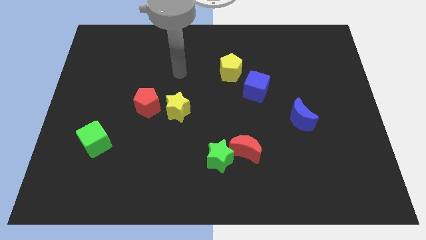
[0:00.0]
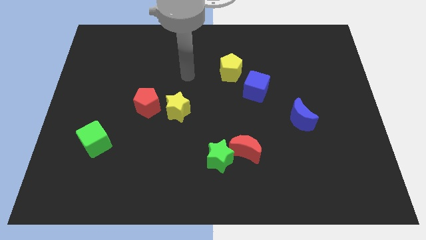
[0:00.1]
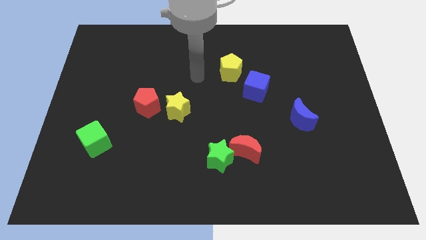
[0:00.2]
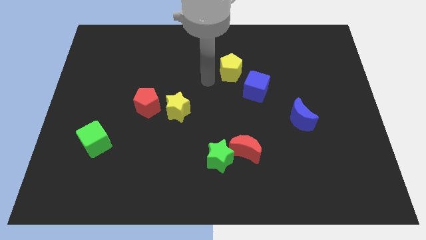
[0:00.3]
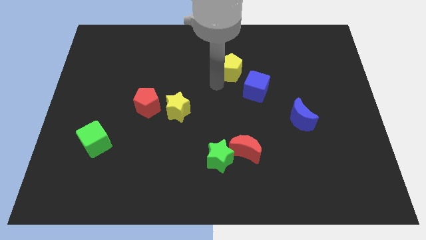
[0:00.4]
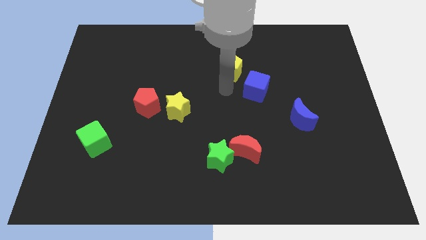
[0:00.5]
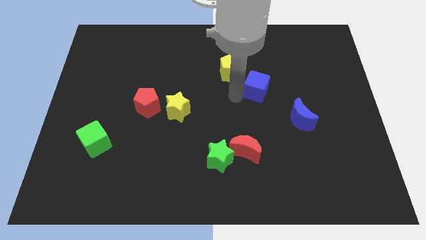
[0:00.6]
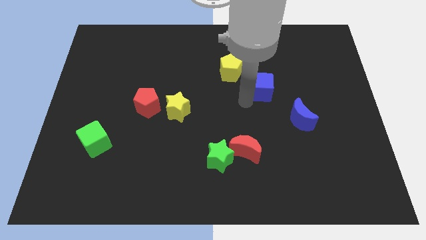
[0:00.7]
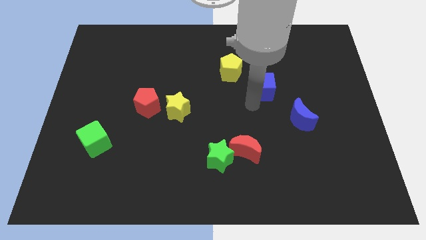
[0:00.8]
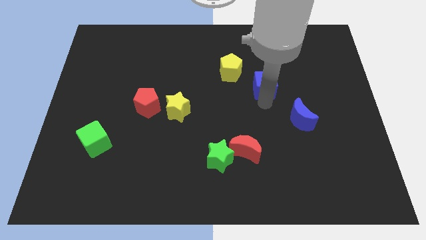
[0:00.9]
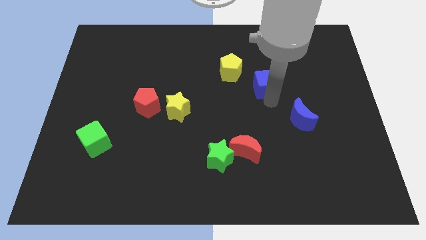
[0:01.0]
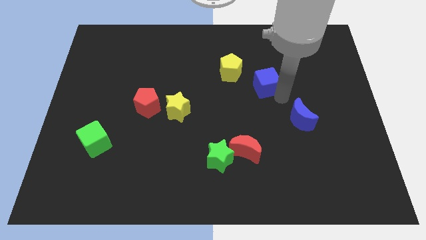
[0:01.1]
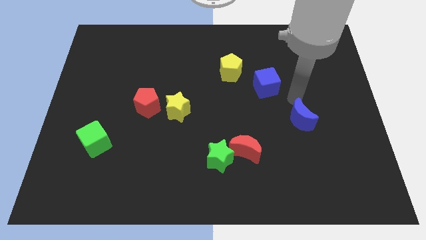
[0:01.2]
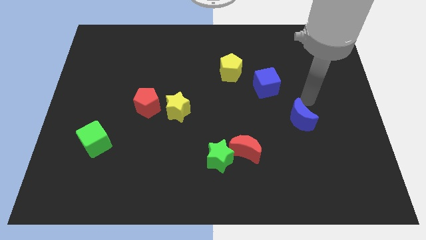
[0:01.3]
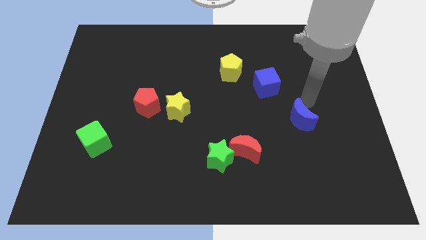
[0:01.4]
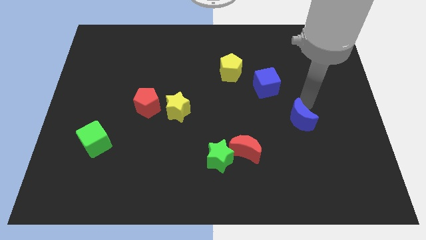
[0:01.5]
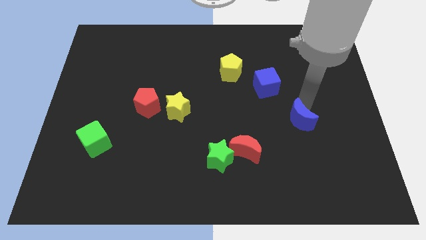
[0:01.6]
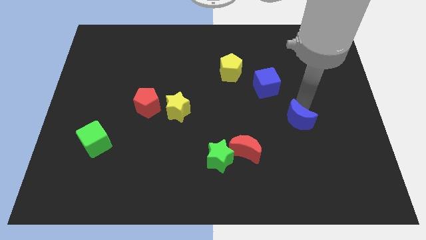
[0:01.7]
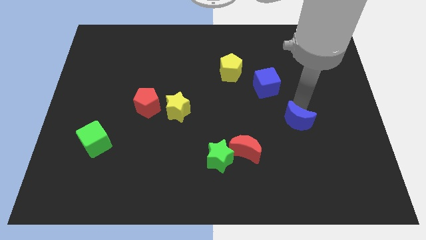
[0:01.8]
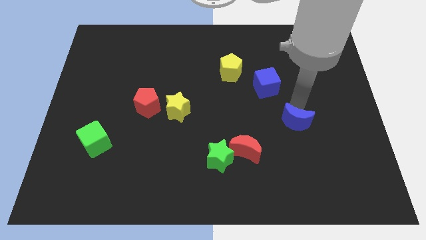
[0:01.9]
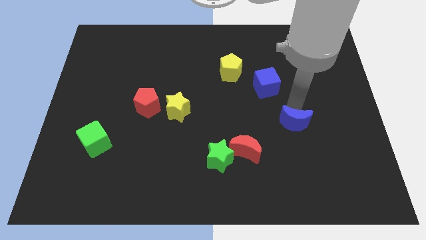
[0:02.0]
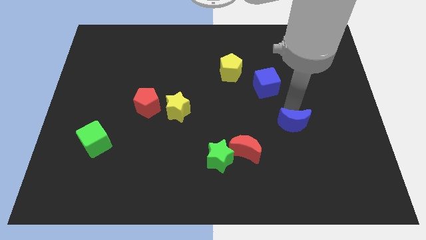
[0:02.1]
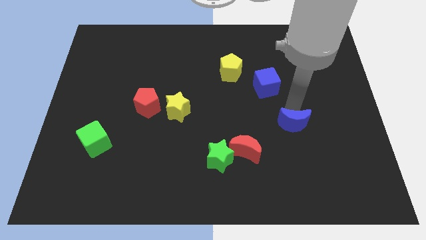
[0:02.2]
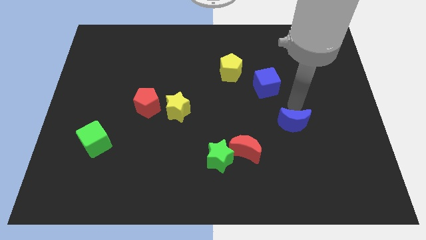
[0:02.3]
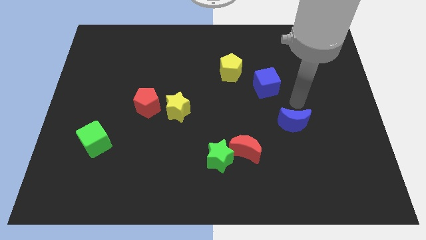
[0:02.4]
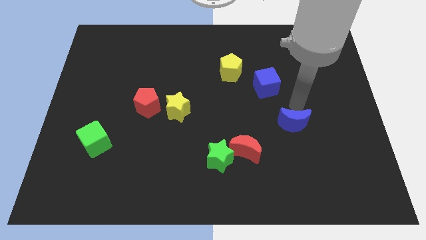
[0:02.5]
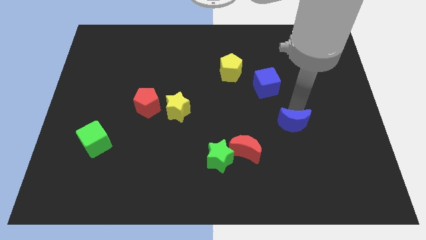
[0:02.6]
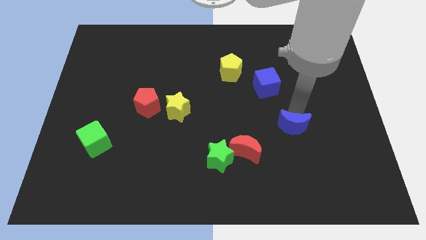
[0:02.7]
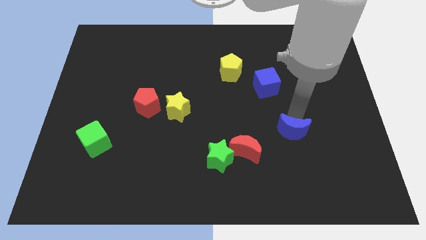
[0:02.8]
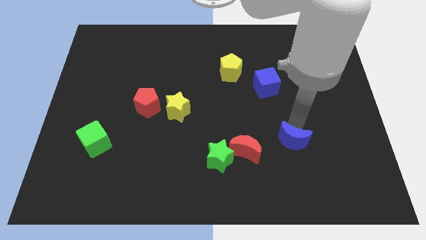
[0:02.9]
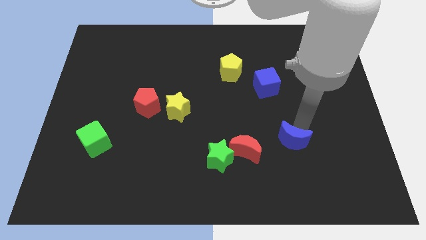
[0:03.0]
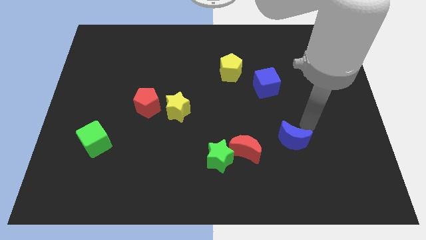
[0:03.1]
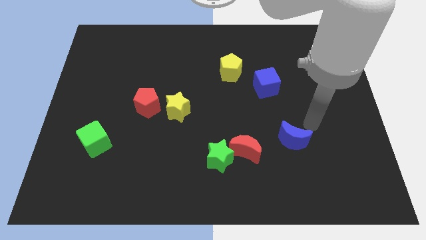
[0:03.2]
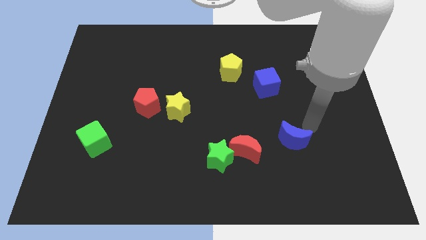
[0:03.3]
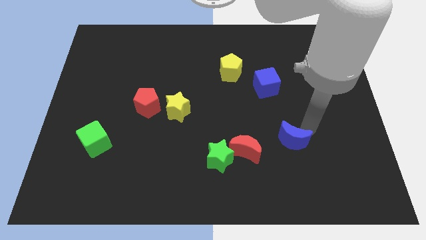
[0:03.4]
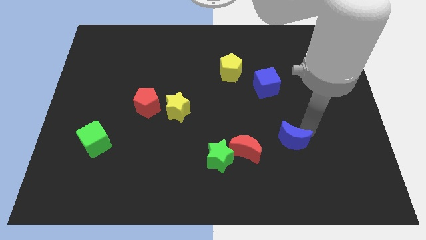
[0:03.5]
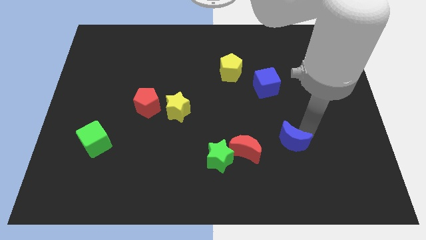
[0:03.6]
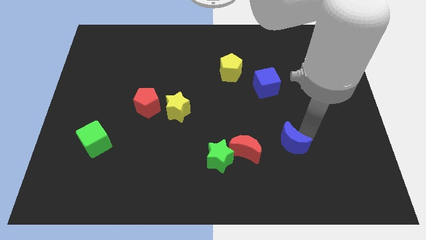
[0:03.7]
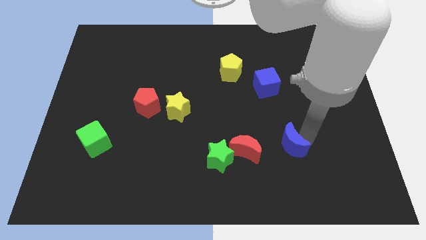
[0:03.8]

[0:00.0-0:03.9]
move the blue moon downwards and left diagonally a little

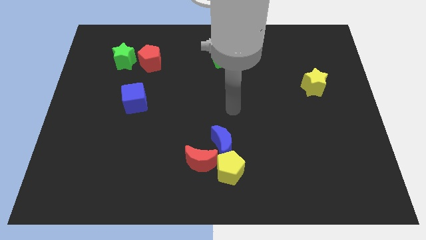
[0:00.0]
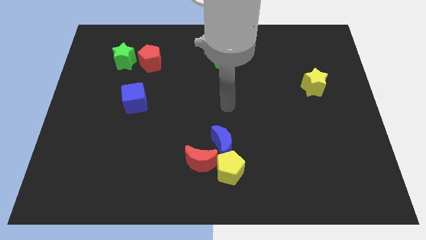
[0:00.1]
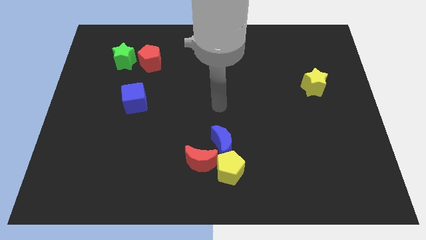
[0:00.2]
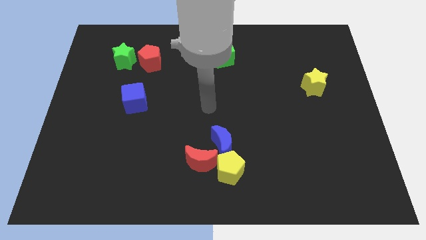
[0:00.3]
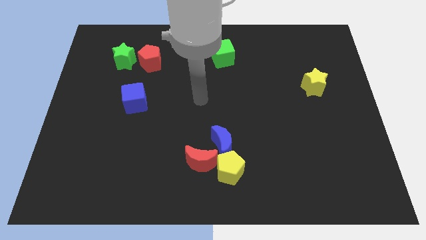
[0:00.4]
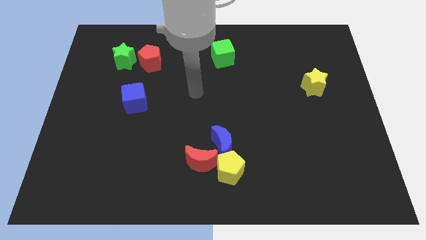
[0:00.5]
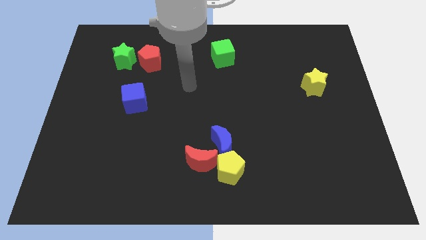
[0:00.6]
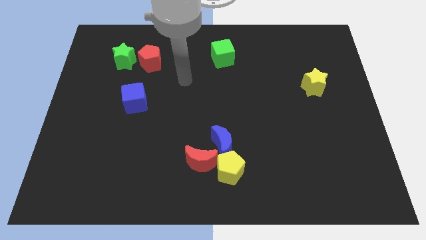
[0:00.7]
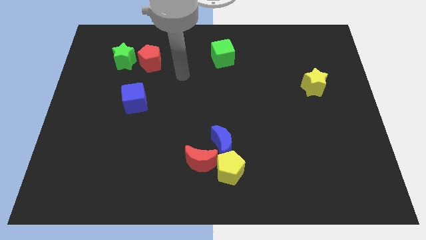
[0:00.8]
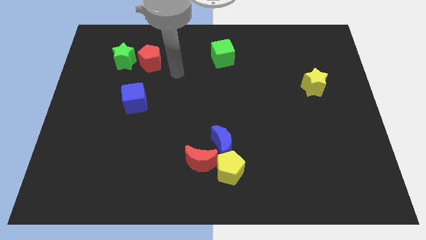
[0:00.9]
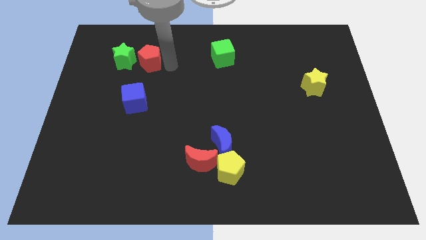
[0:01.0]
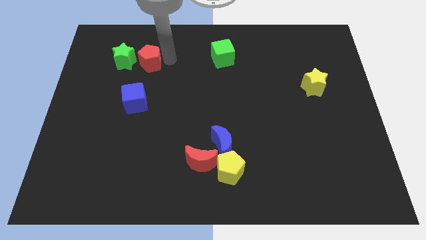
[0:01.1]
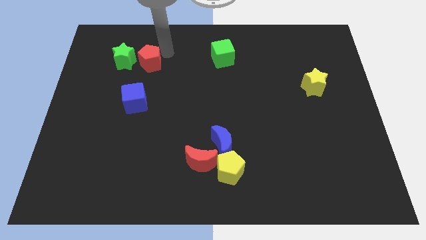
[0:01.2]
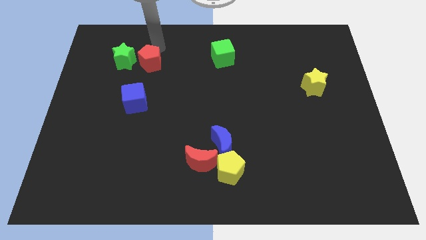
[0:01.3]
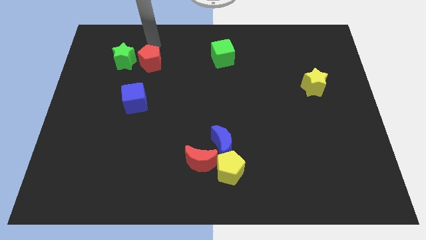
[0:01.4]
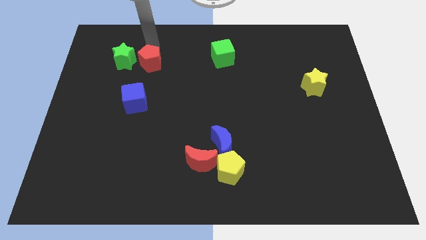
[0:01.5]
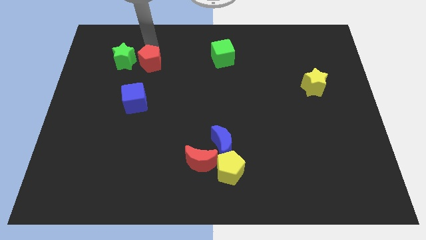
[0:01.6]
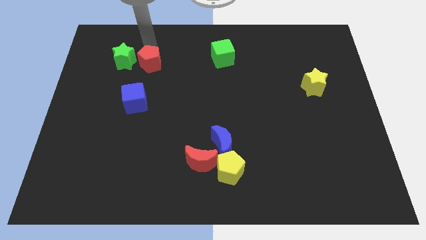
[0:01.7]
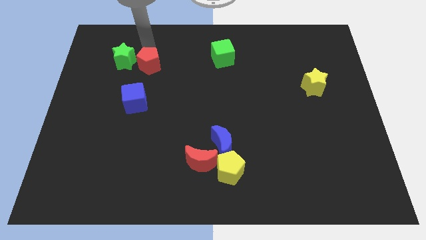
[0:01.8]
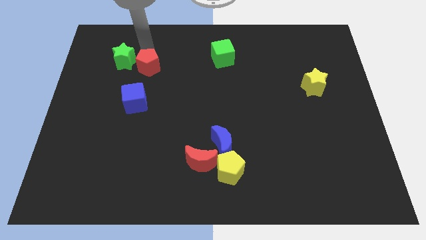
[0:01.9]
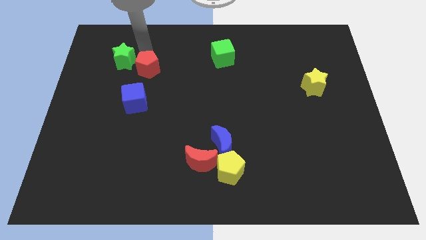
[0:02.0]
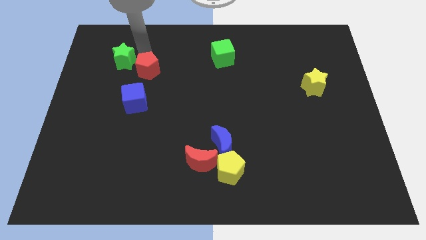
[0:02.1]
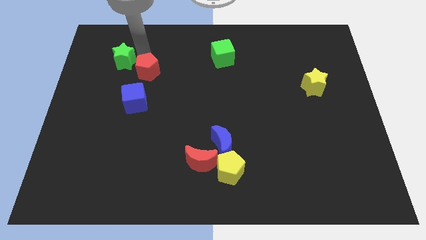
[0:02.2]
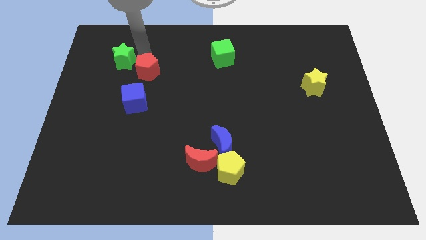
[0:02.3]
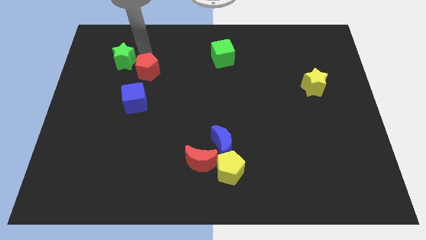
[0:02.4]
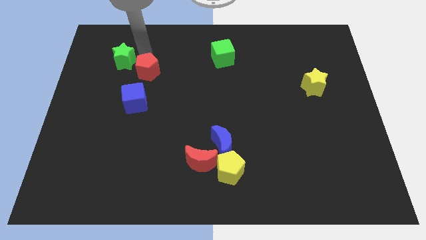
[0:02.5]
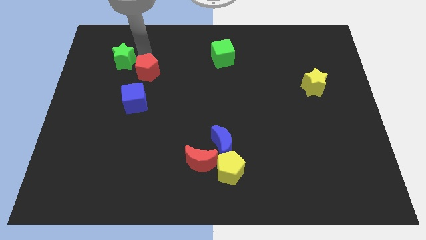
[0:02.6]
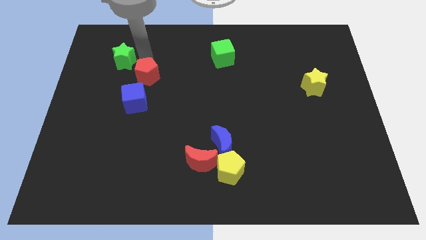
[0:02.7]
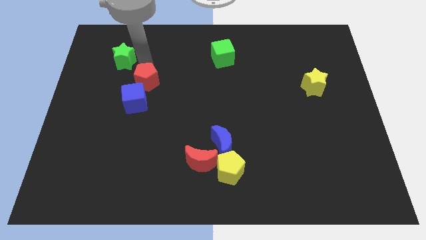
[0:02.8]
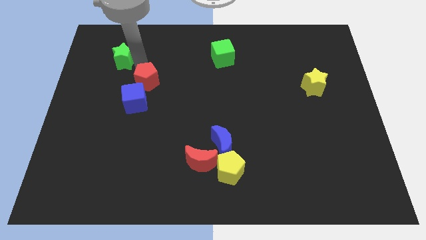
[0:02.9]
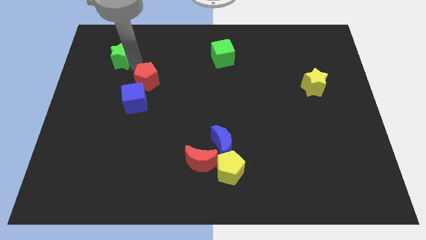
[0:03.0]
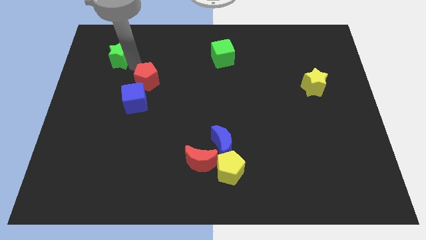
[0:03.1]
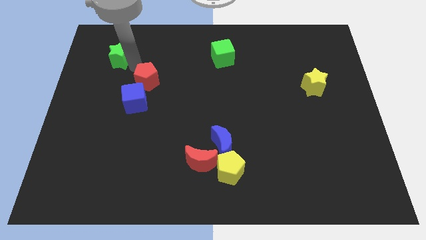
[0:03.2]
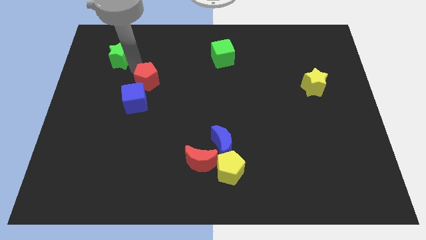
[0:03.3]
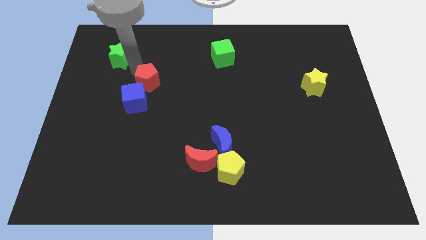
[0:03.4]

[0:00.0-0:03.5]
move the red pentagon downwards somewhat

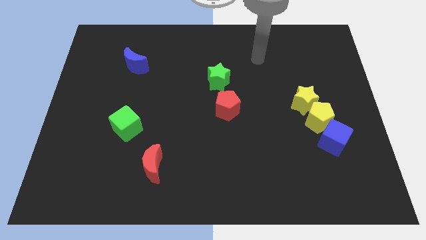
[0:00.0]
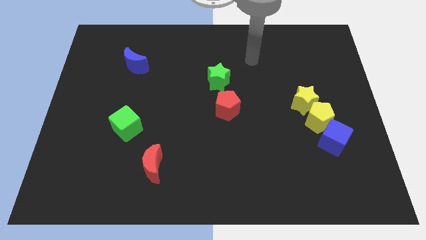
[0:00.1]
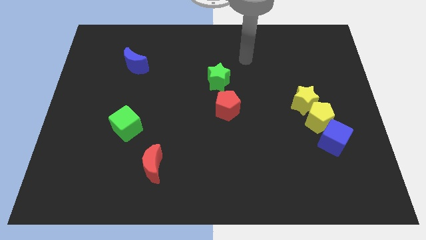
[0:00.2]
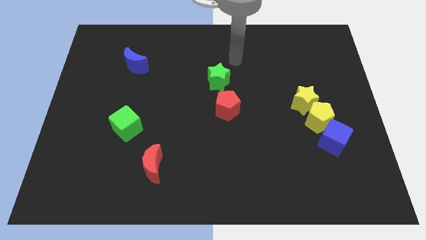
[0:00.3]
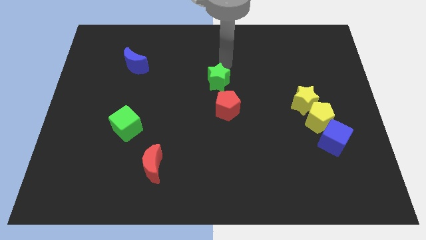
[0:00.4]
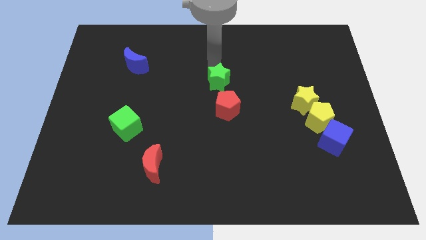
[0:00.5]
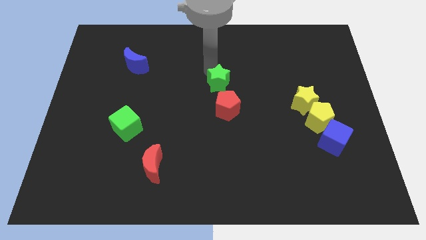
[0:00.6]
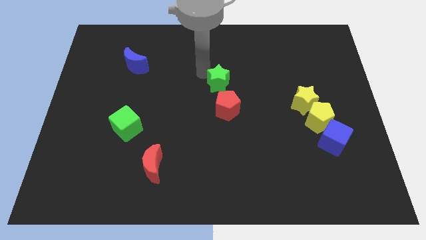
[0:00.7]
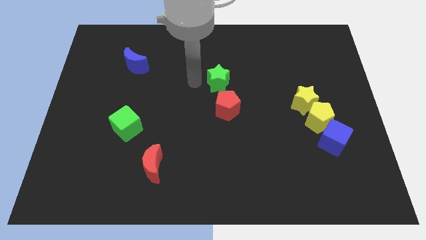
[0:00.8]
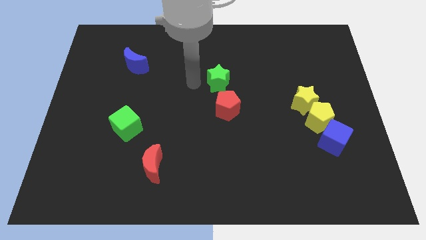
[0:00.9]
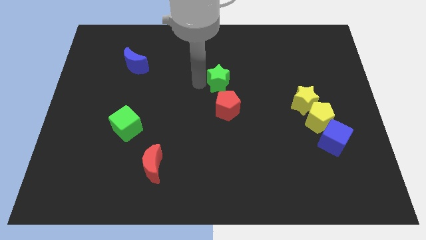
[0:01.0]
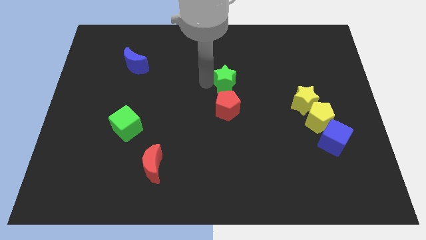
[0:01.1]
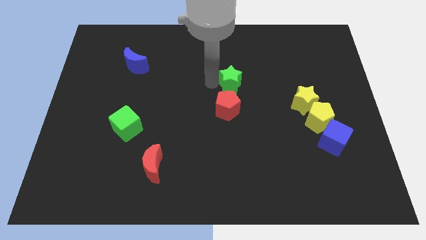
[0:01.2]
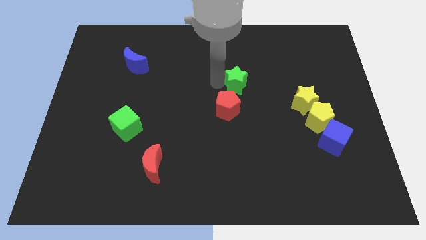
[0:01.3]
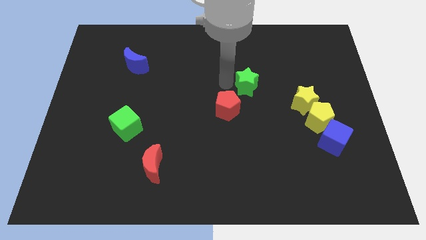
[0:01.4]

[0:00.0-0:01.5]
slightly slide the green star right

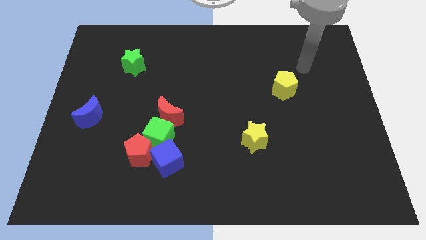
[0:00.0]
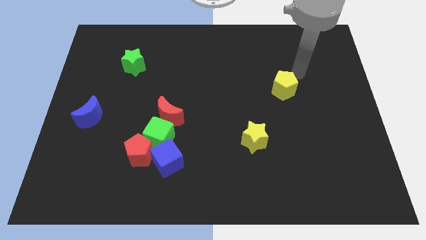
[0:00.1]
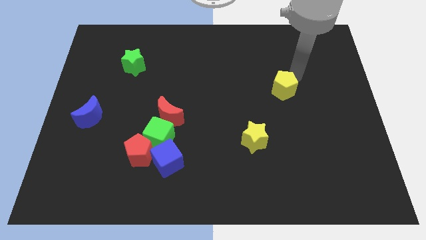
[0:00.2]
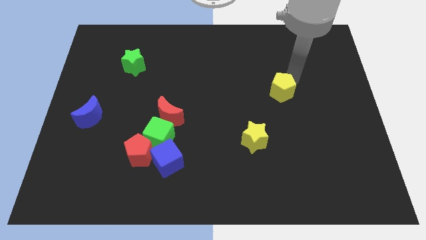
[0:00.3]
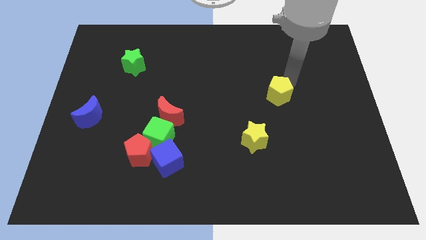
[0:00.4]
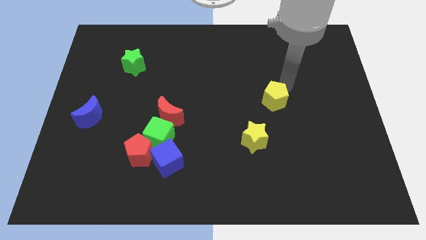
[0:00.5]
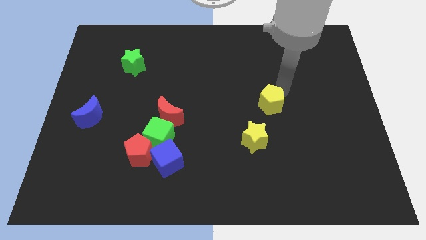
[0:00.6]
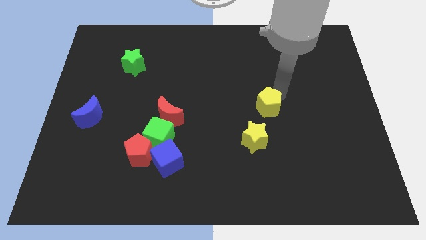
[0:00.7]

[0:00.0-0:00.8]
push the yellow pentagon a bit diagonally downwards and left
